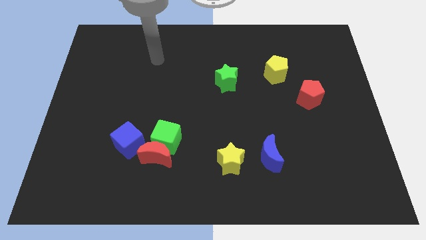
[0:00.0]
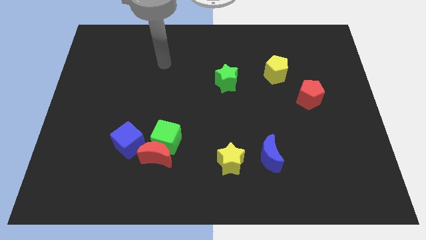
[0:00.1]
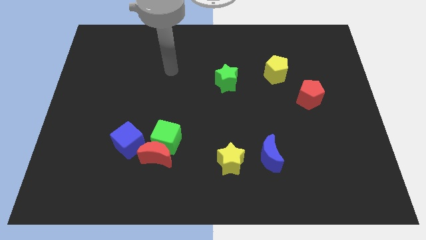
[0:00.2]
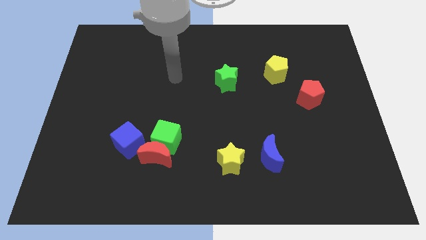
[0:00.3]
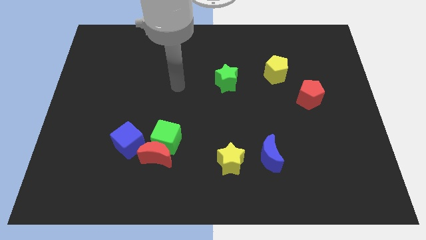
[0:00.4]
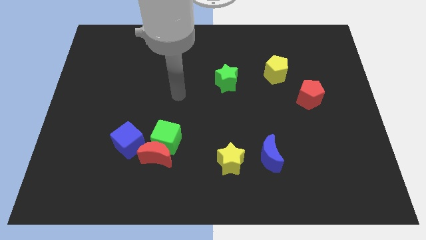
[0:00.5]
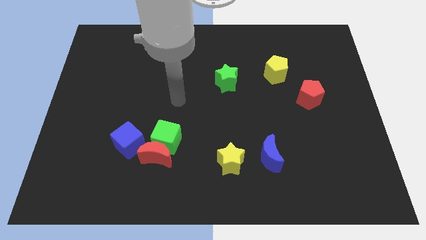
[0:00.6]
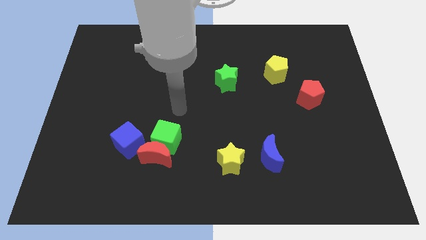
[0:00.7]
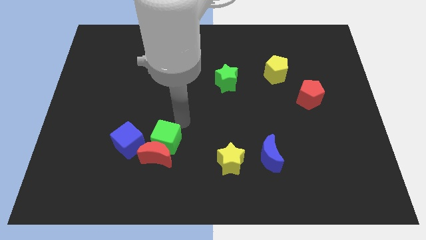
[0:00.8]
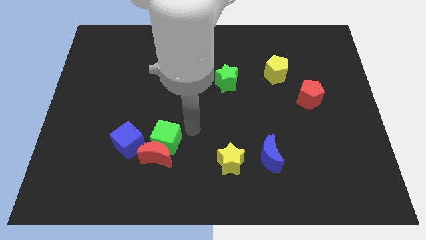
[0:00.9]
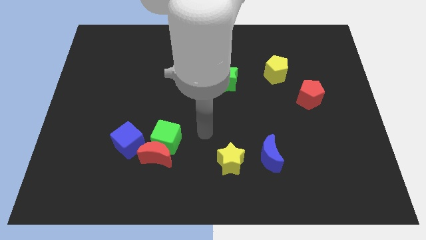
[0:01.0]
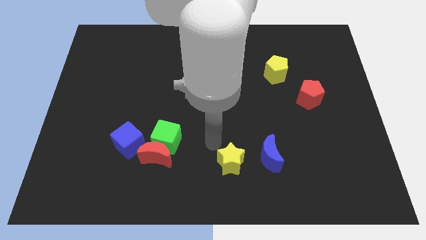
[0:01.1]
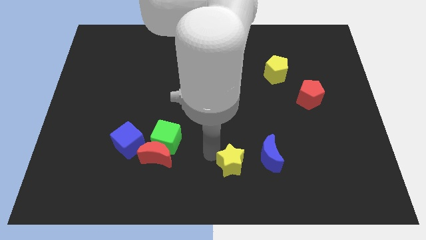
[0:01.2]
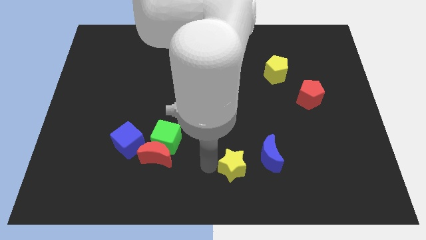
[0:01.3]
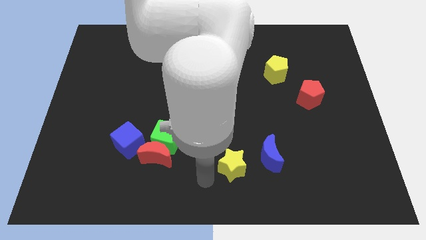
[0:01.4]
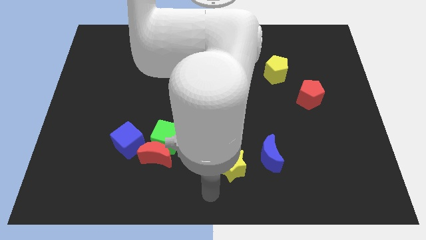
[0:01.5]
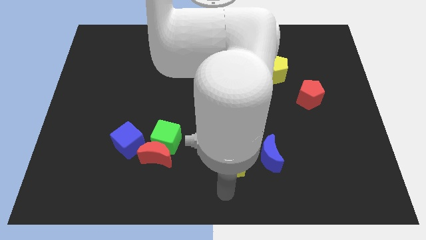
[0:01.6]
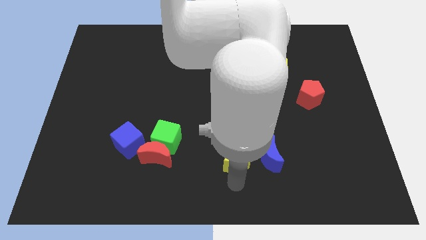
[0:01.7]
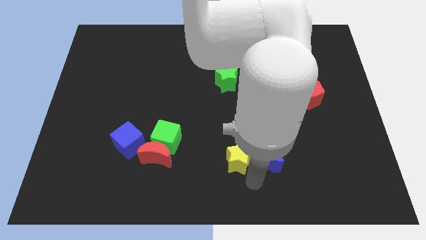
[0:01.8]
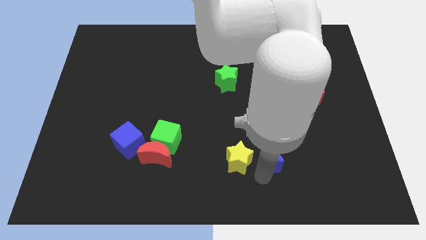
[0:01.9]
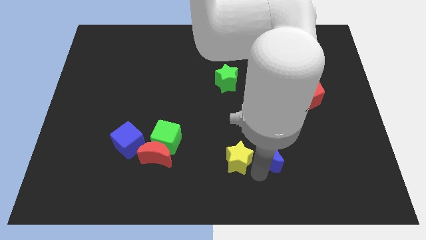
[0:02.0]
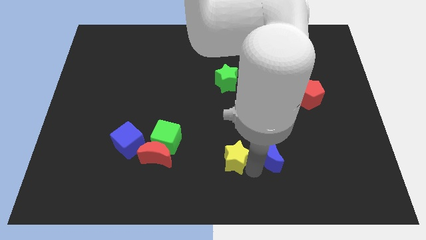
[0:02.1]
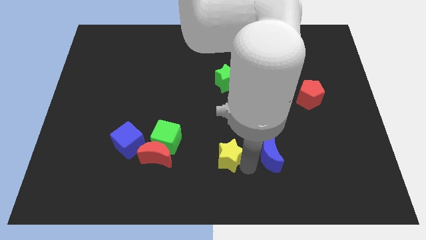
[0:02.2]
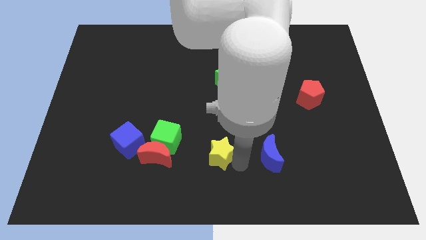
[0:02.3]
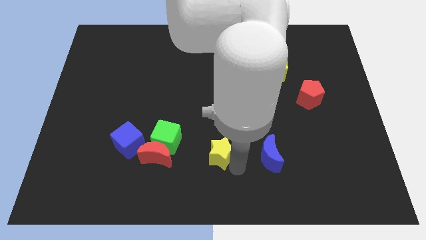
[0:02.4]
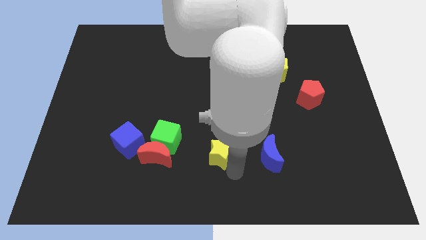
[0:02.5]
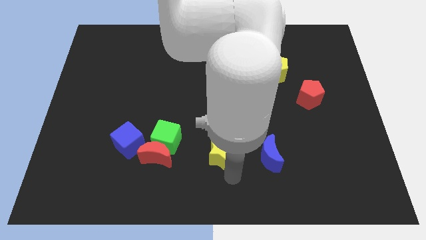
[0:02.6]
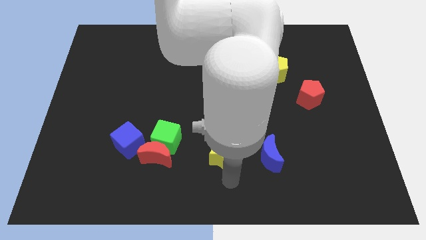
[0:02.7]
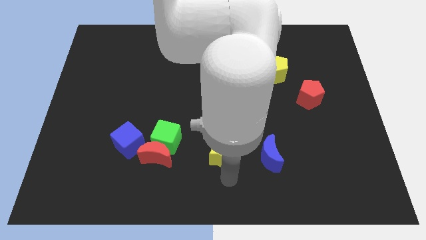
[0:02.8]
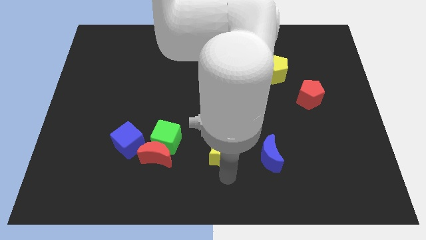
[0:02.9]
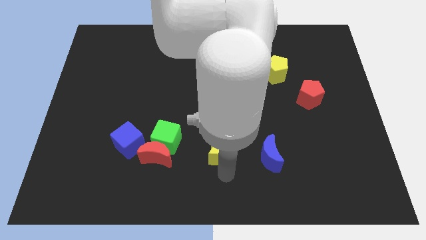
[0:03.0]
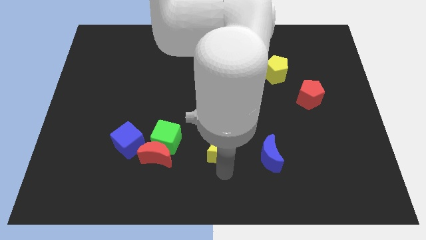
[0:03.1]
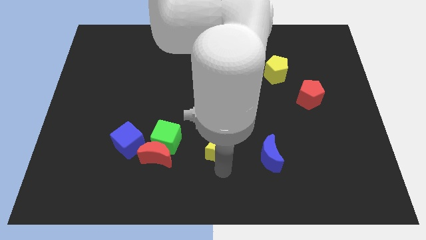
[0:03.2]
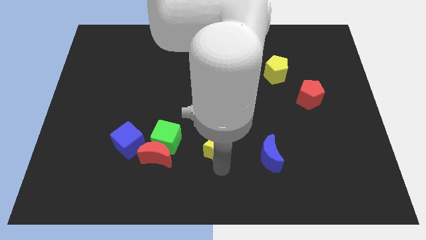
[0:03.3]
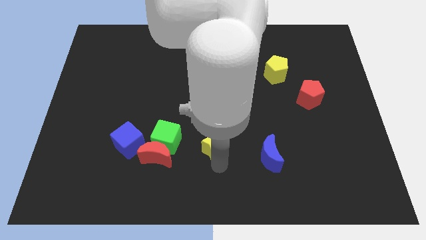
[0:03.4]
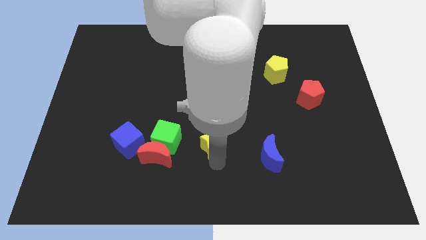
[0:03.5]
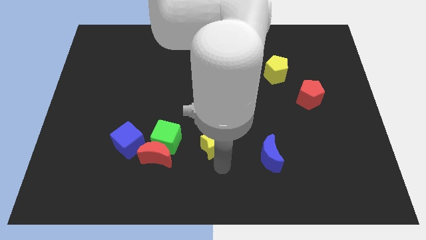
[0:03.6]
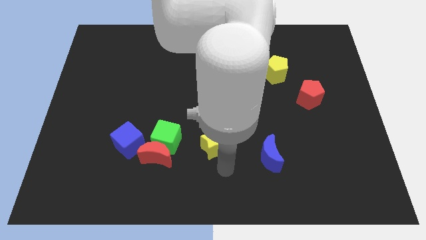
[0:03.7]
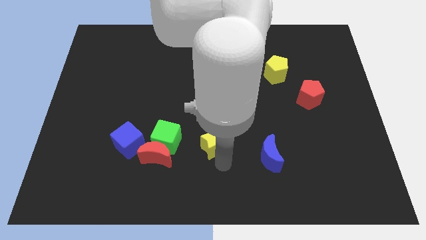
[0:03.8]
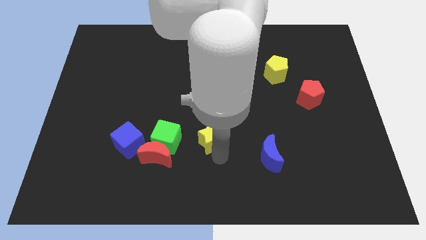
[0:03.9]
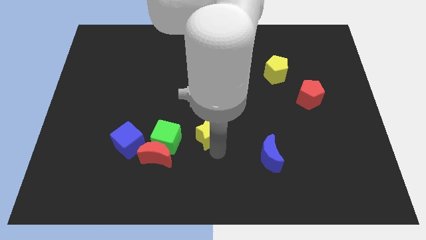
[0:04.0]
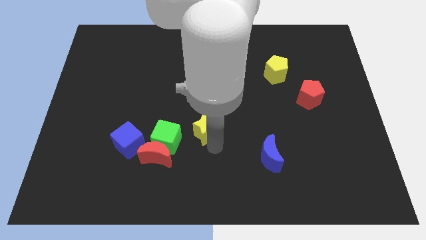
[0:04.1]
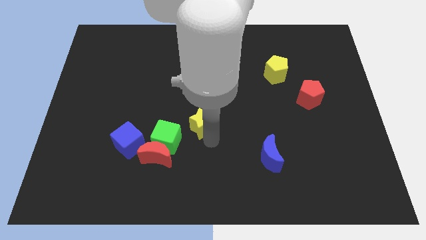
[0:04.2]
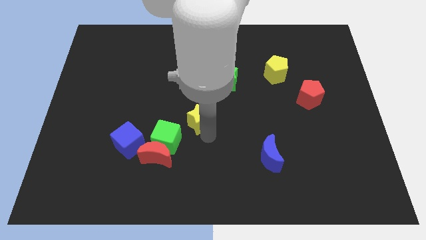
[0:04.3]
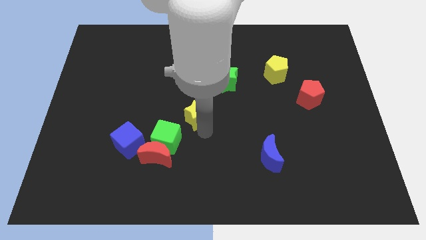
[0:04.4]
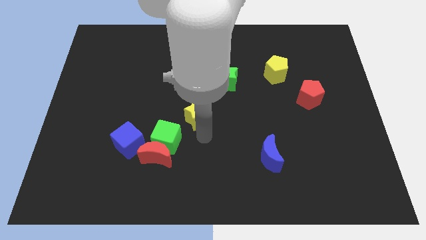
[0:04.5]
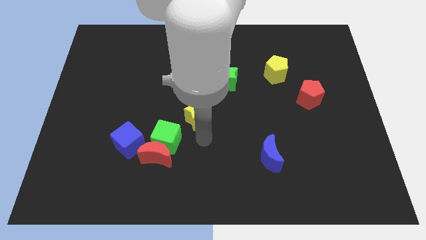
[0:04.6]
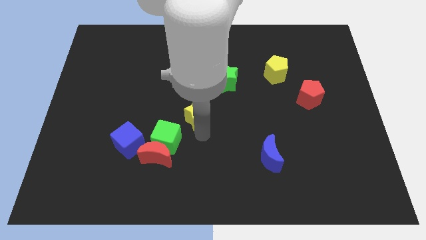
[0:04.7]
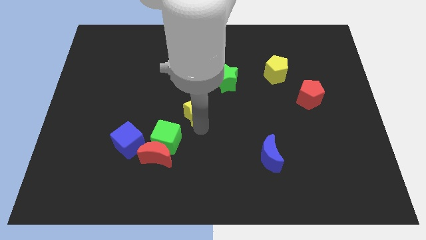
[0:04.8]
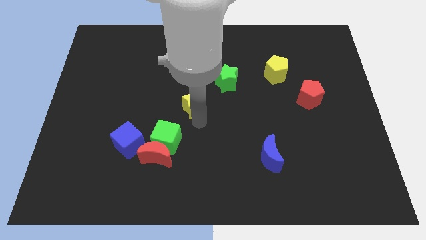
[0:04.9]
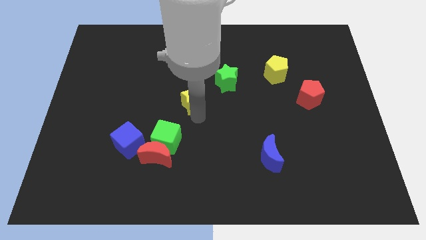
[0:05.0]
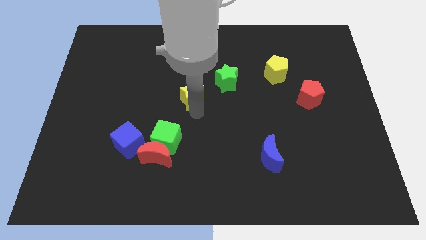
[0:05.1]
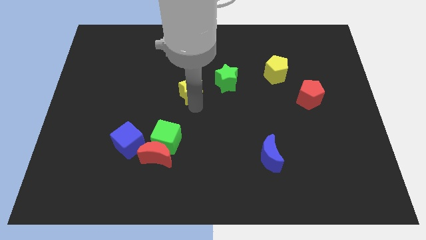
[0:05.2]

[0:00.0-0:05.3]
move the yellow star to the left of the green star

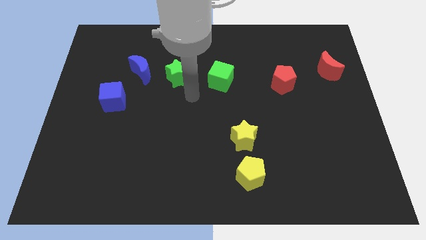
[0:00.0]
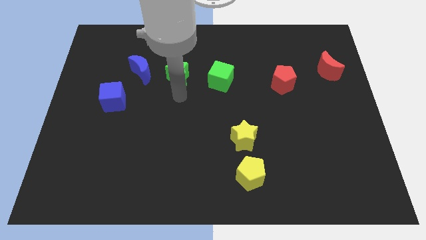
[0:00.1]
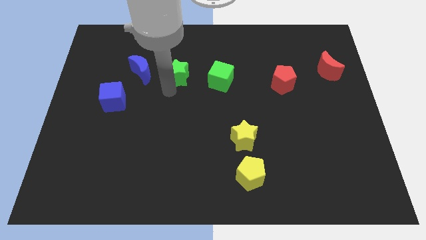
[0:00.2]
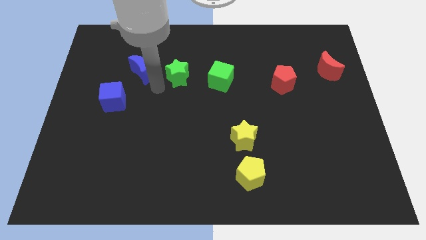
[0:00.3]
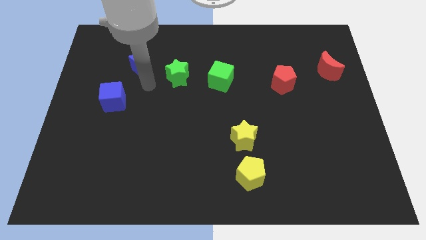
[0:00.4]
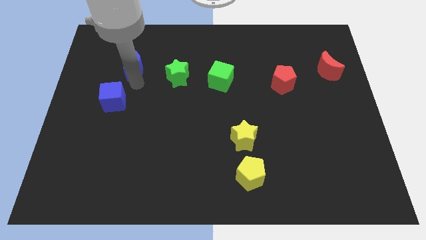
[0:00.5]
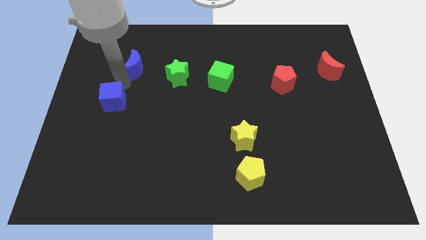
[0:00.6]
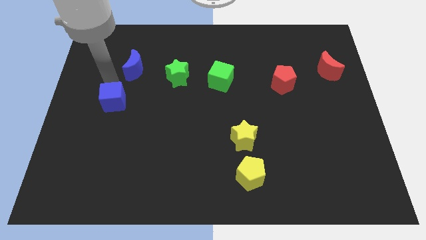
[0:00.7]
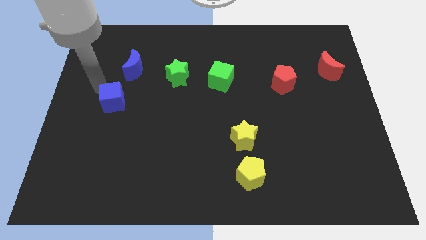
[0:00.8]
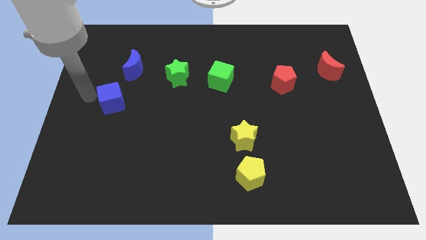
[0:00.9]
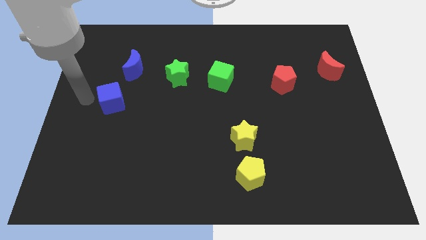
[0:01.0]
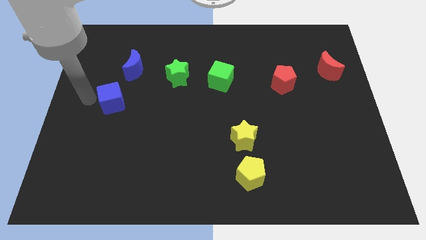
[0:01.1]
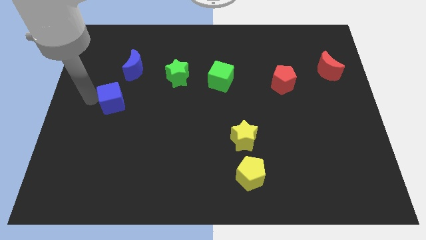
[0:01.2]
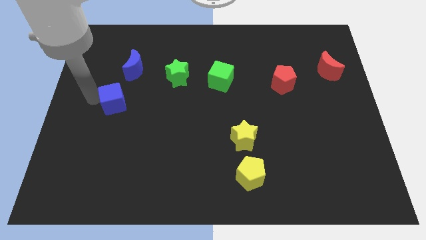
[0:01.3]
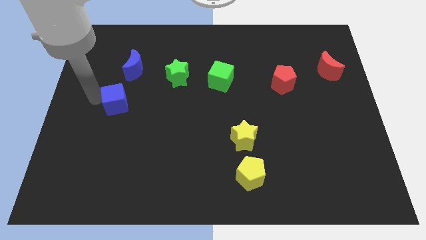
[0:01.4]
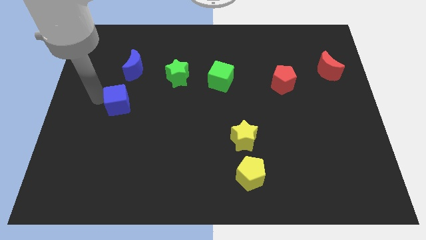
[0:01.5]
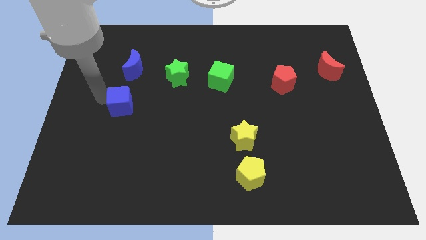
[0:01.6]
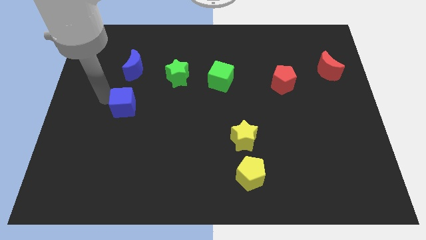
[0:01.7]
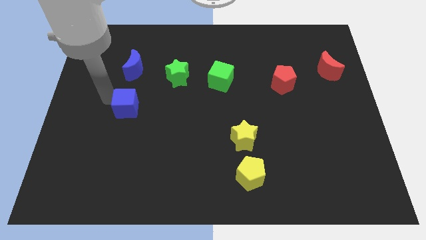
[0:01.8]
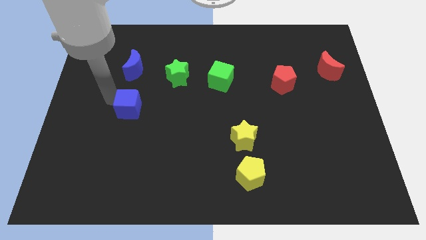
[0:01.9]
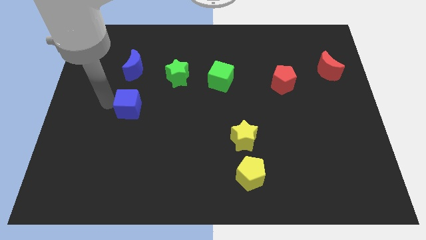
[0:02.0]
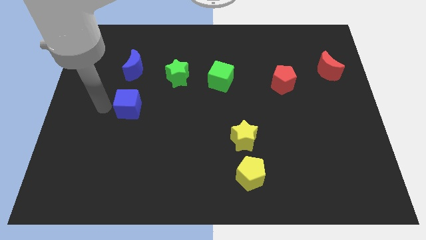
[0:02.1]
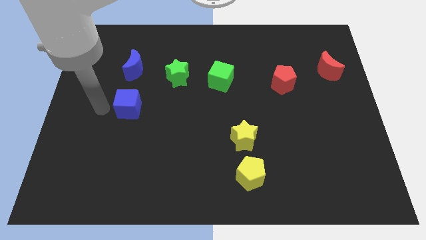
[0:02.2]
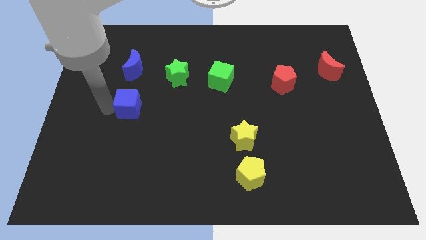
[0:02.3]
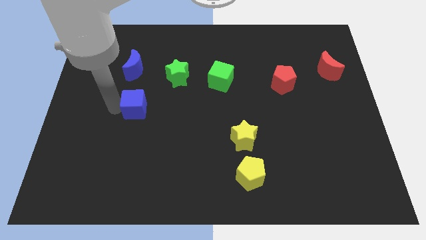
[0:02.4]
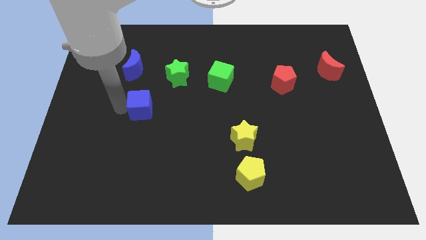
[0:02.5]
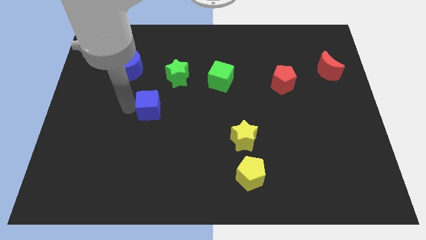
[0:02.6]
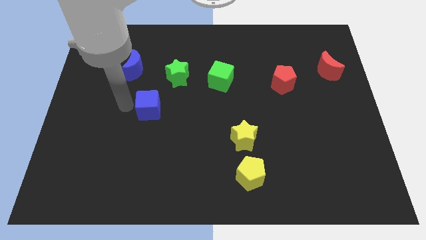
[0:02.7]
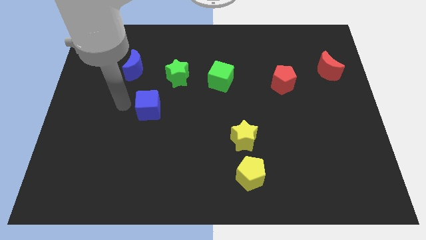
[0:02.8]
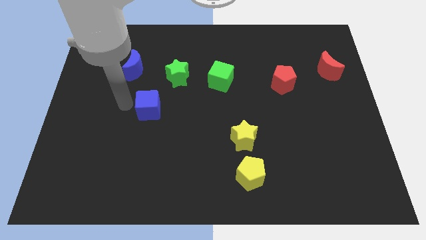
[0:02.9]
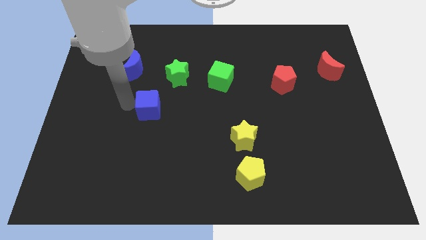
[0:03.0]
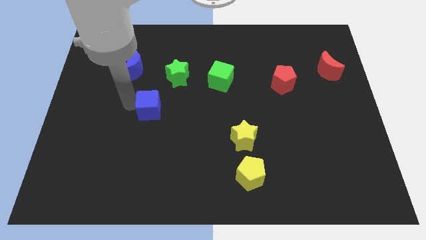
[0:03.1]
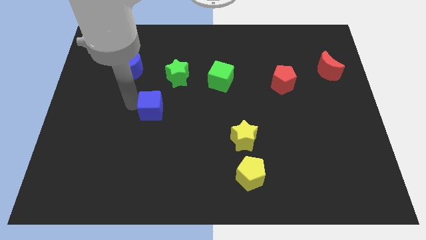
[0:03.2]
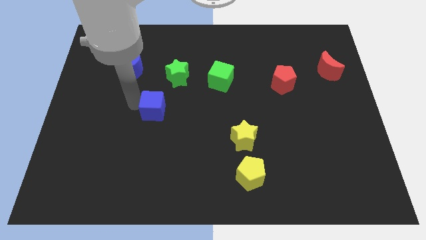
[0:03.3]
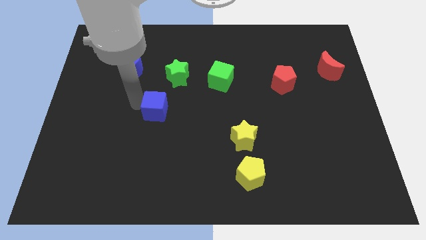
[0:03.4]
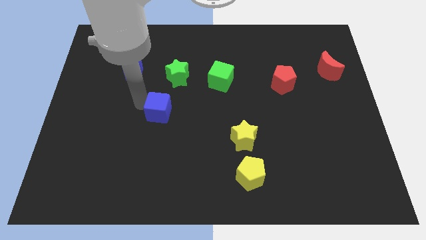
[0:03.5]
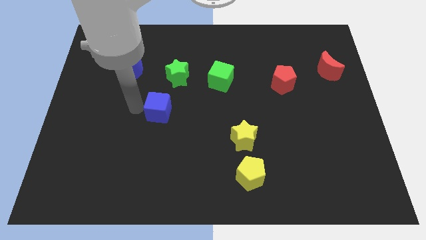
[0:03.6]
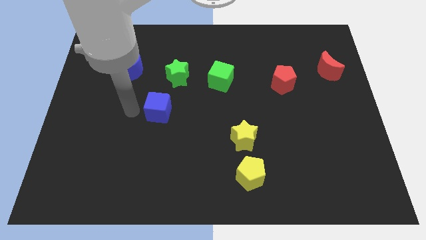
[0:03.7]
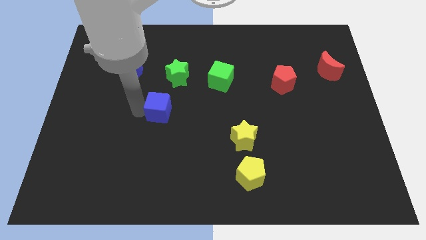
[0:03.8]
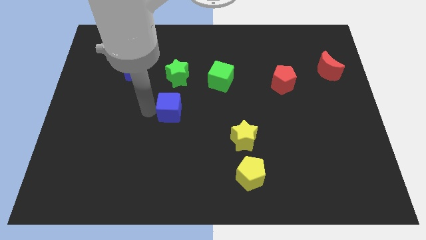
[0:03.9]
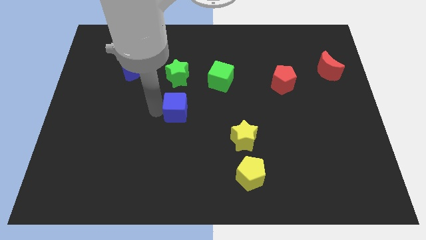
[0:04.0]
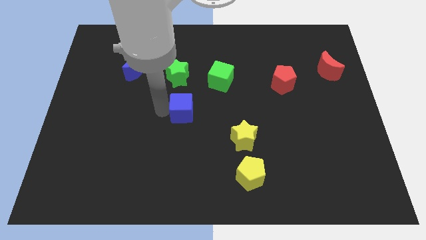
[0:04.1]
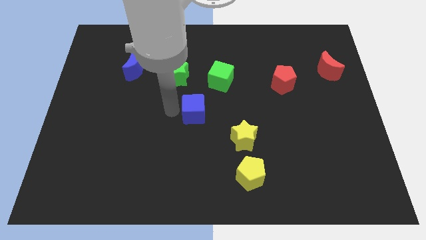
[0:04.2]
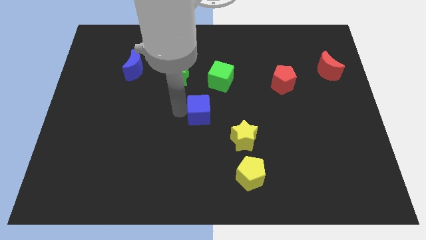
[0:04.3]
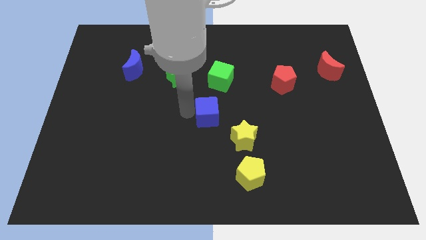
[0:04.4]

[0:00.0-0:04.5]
push the blue cube to the bottom of the green cube
